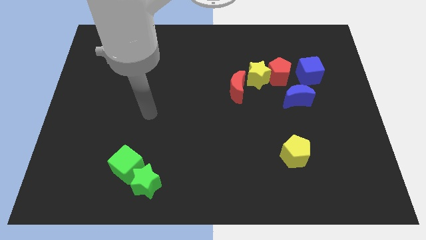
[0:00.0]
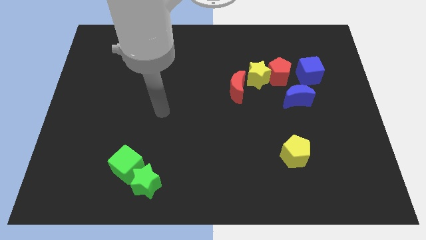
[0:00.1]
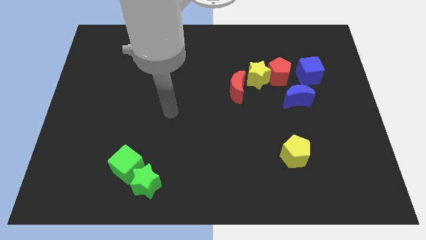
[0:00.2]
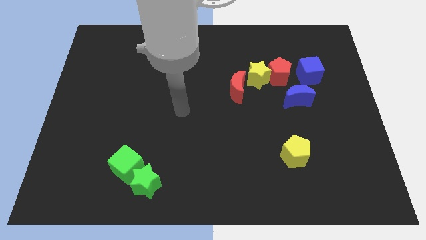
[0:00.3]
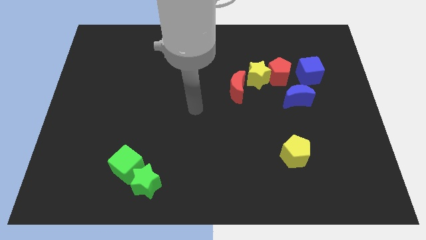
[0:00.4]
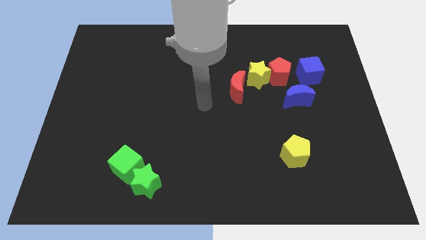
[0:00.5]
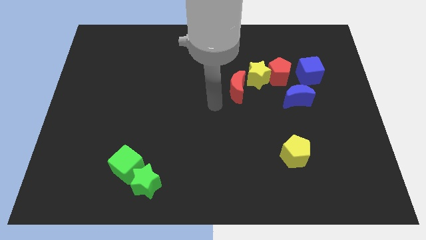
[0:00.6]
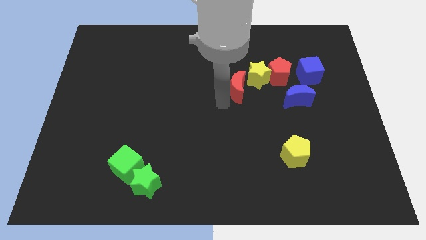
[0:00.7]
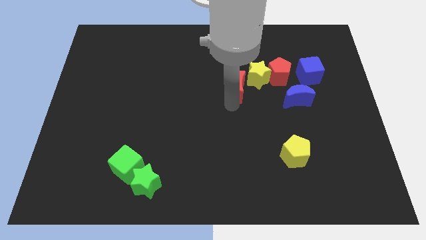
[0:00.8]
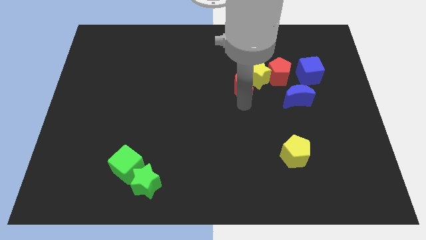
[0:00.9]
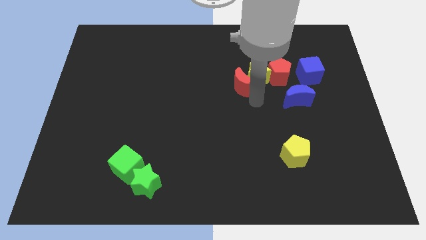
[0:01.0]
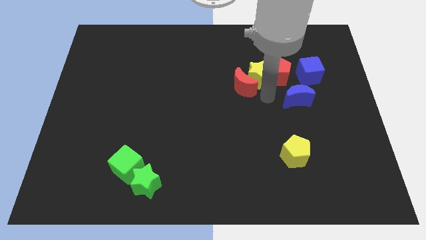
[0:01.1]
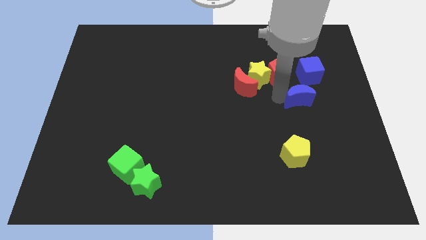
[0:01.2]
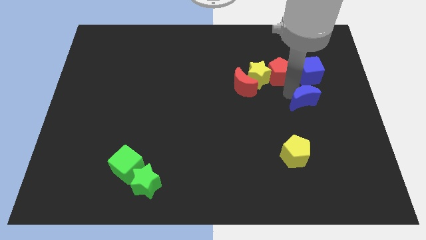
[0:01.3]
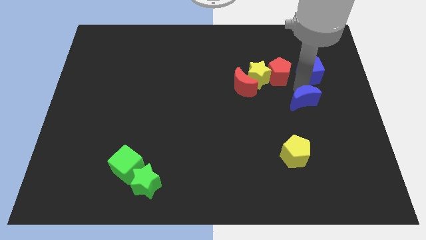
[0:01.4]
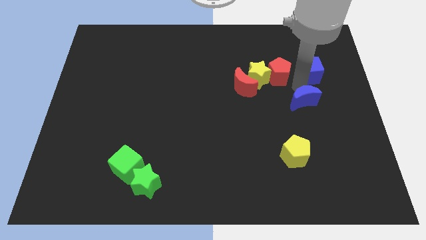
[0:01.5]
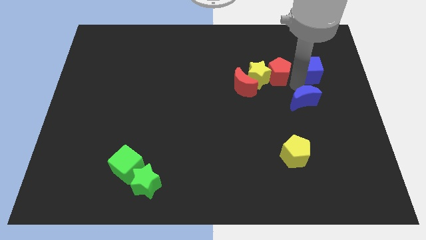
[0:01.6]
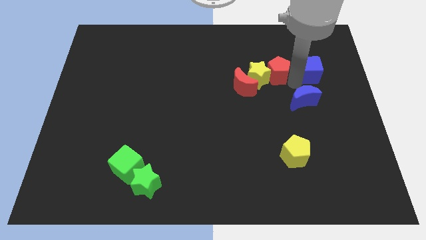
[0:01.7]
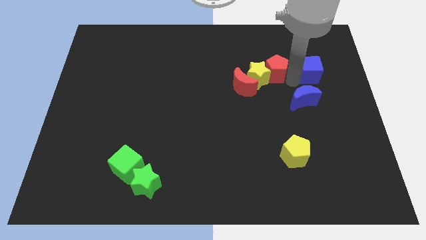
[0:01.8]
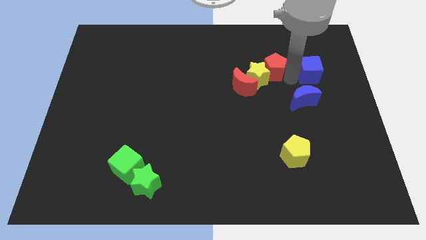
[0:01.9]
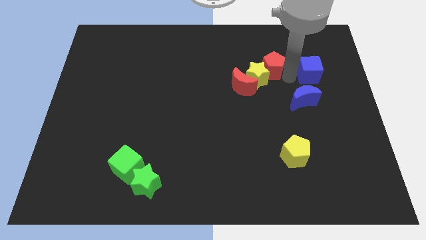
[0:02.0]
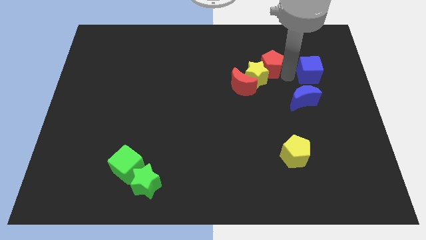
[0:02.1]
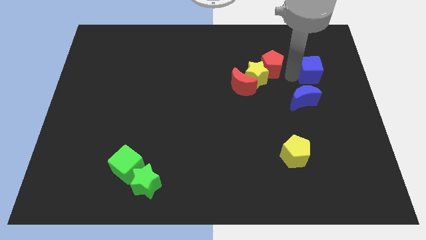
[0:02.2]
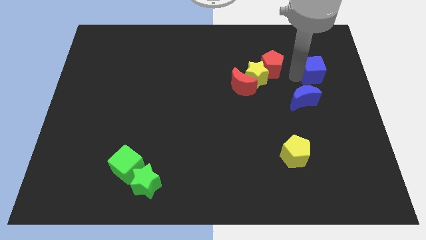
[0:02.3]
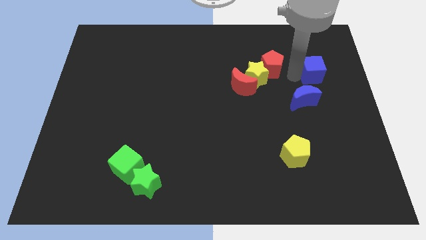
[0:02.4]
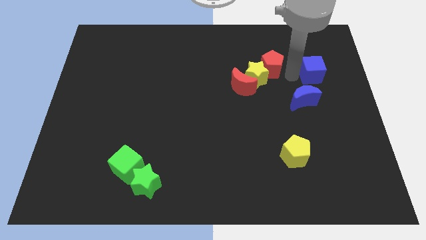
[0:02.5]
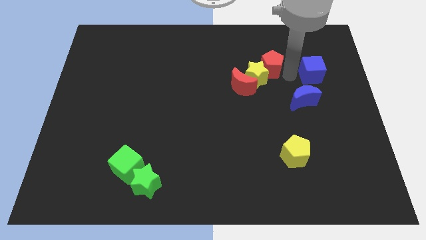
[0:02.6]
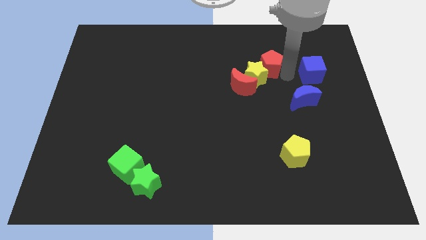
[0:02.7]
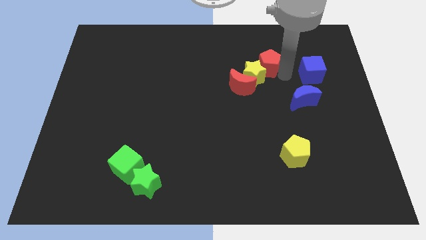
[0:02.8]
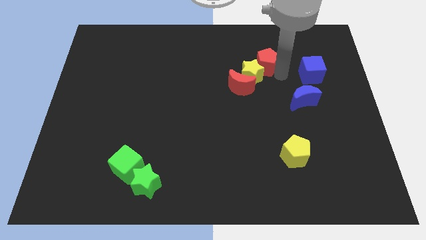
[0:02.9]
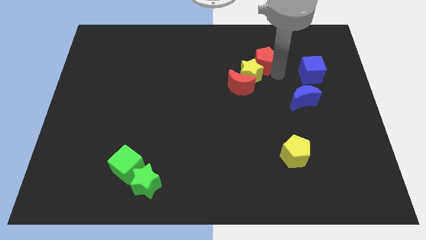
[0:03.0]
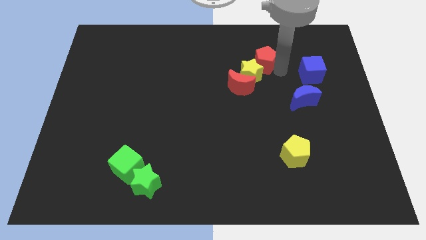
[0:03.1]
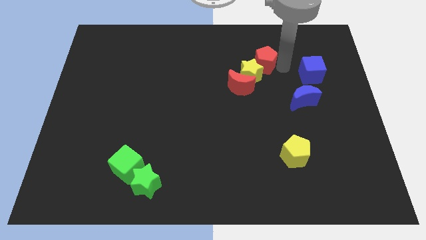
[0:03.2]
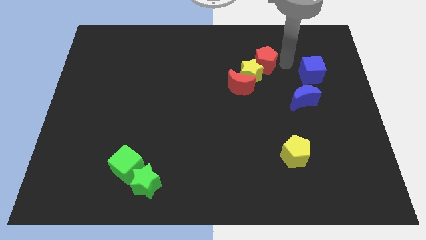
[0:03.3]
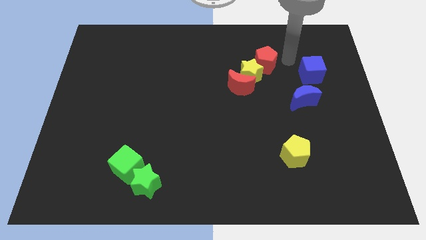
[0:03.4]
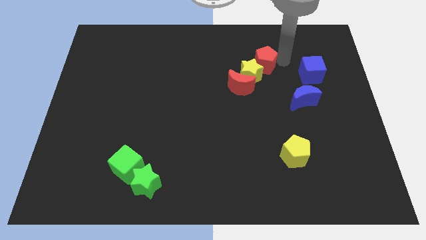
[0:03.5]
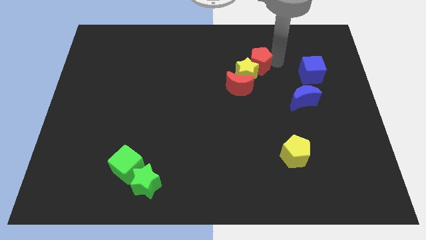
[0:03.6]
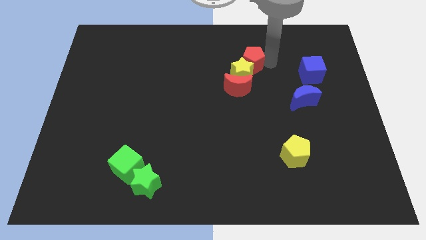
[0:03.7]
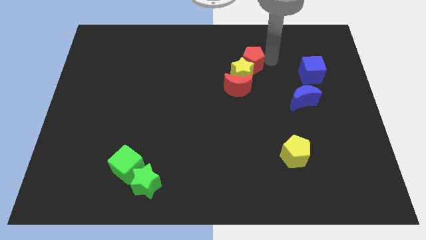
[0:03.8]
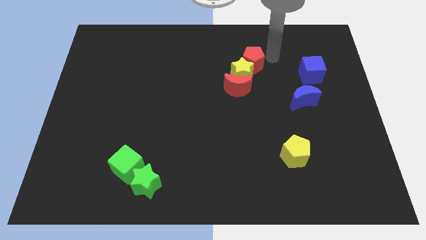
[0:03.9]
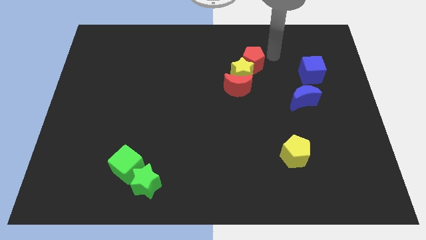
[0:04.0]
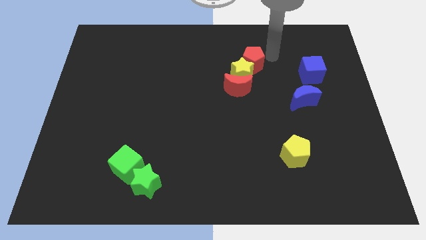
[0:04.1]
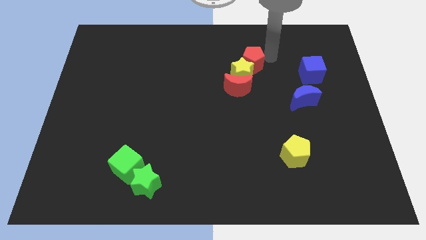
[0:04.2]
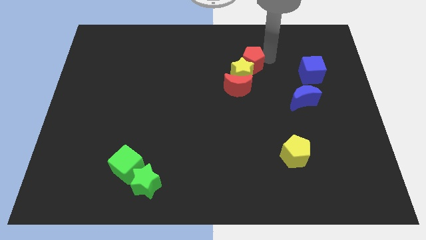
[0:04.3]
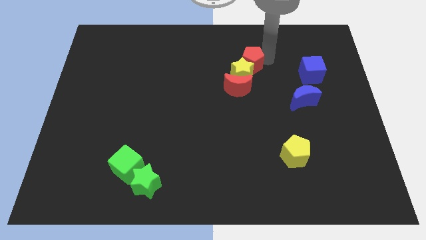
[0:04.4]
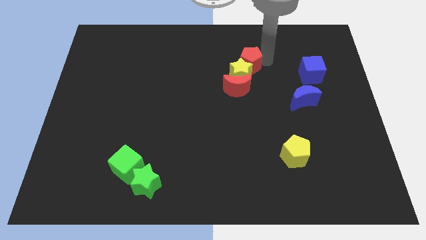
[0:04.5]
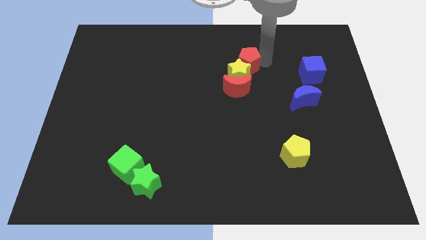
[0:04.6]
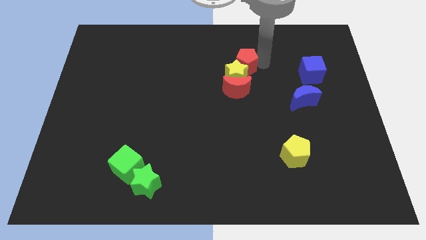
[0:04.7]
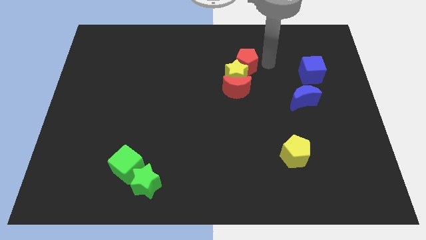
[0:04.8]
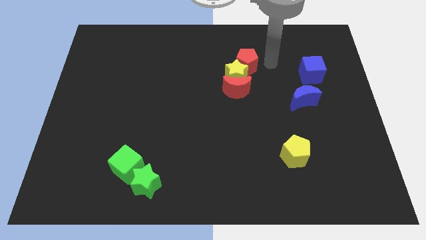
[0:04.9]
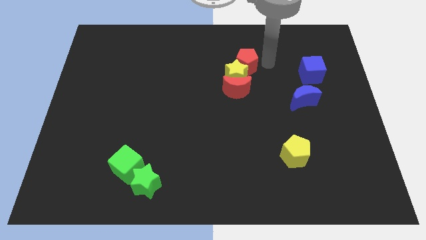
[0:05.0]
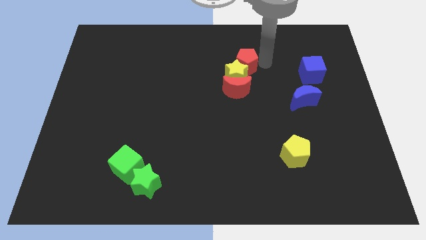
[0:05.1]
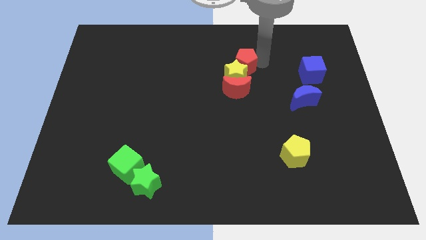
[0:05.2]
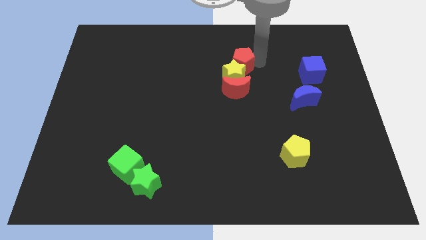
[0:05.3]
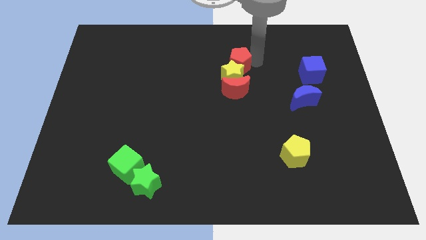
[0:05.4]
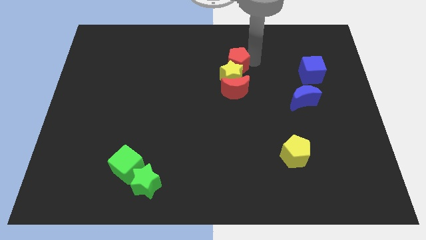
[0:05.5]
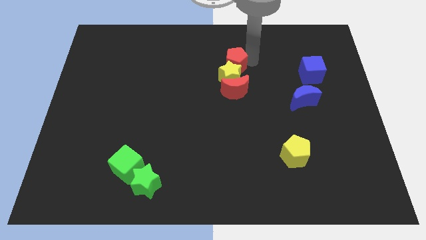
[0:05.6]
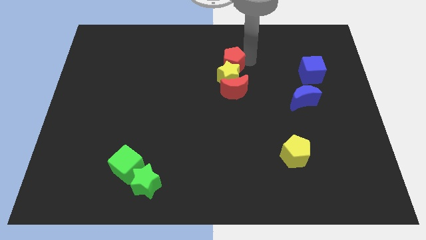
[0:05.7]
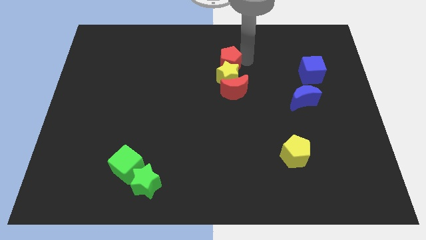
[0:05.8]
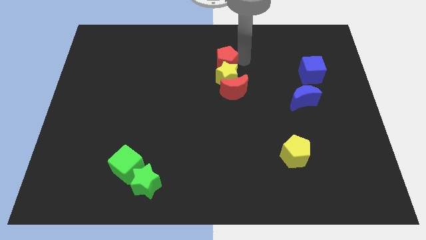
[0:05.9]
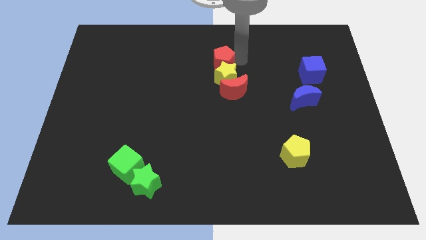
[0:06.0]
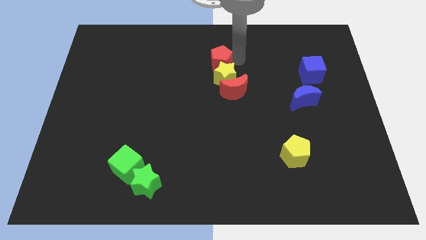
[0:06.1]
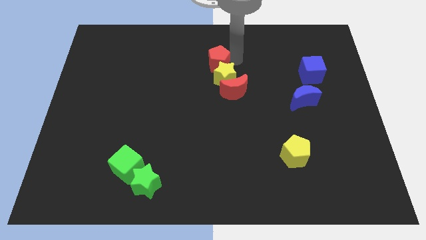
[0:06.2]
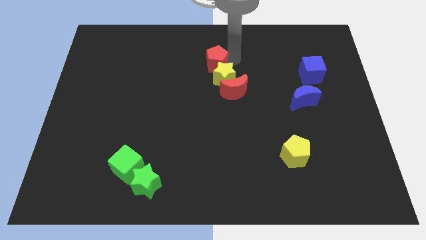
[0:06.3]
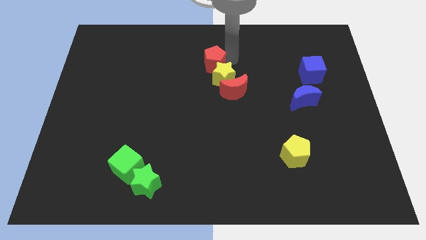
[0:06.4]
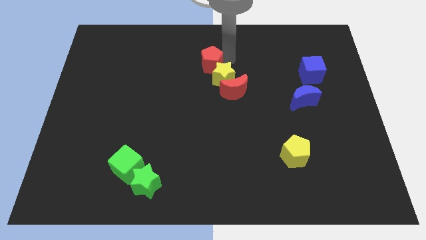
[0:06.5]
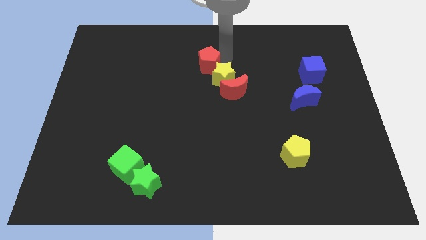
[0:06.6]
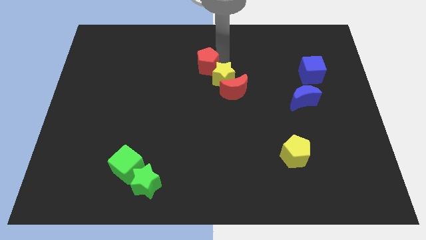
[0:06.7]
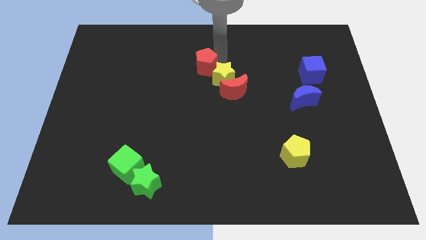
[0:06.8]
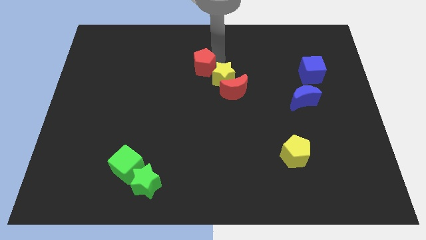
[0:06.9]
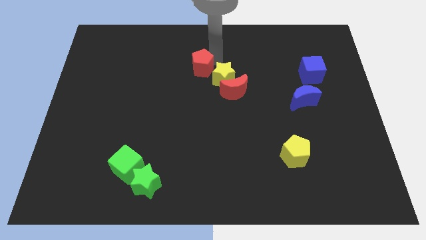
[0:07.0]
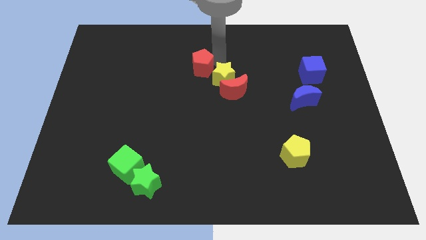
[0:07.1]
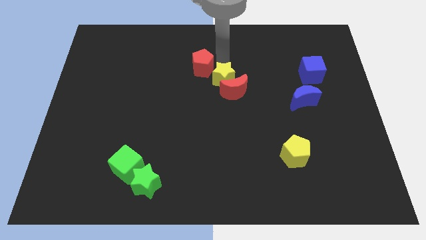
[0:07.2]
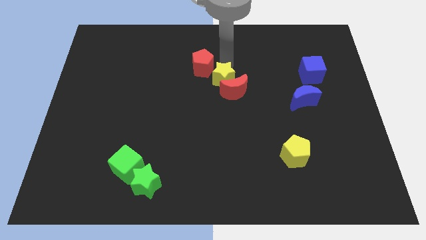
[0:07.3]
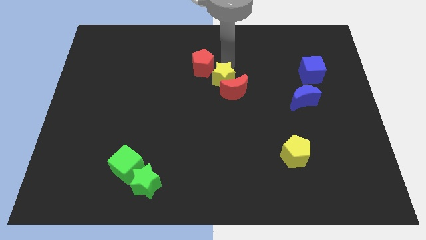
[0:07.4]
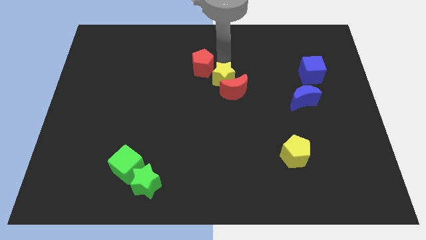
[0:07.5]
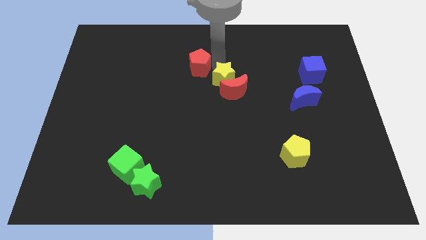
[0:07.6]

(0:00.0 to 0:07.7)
move the red pentagon to the left

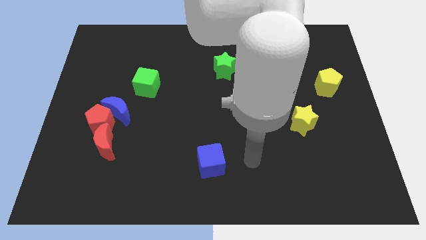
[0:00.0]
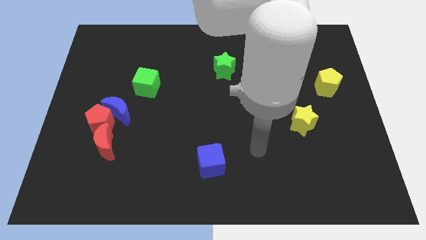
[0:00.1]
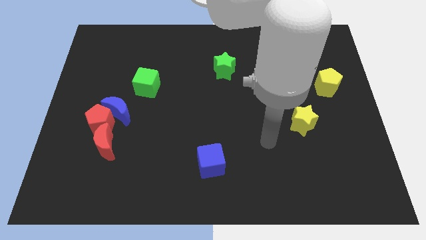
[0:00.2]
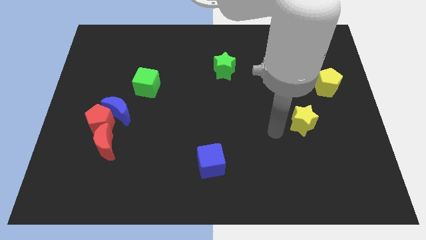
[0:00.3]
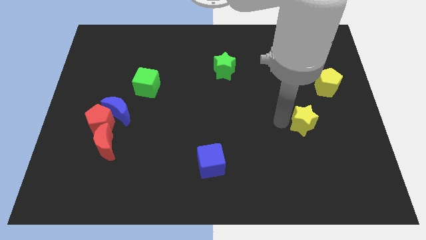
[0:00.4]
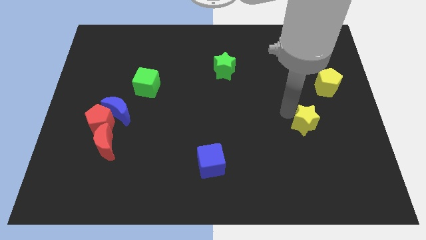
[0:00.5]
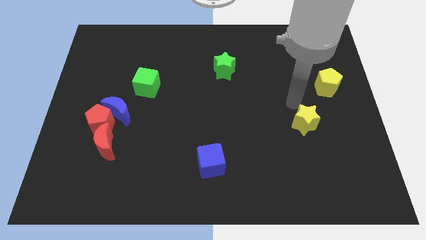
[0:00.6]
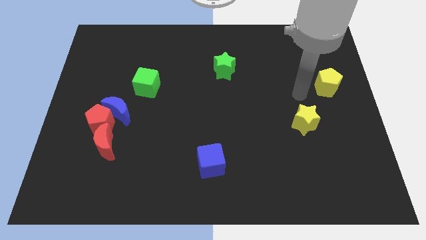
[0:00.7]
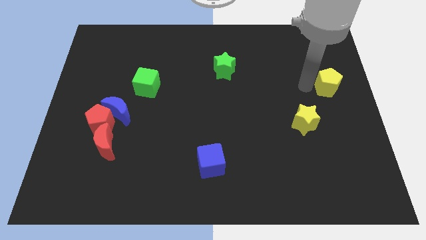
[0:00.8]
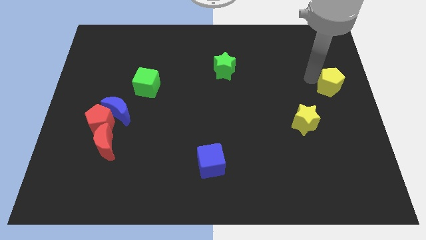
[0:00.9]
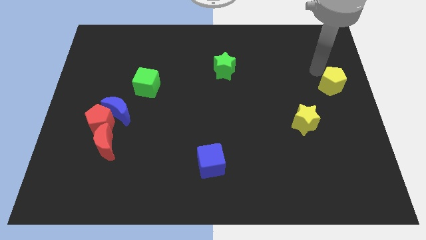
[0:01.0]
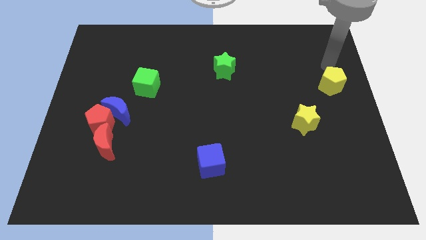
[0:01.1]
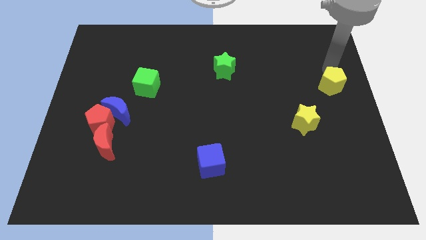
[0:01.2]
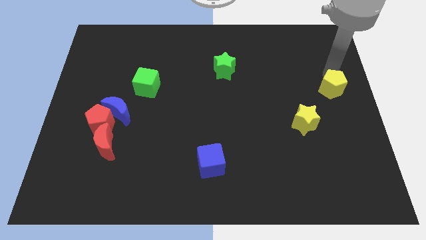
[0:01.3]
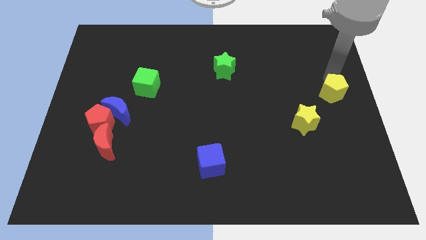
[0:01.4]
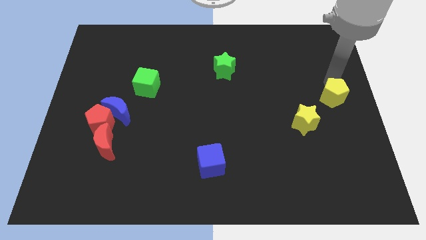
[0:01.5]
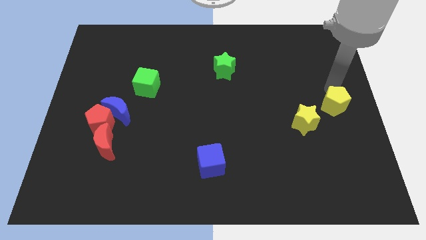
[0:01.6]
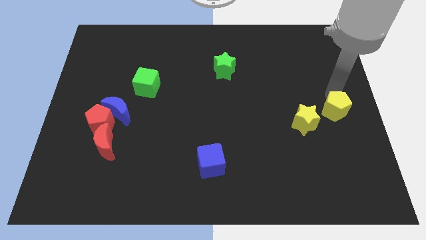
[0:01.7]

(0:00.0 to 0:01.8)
slightly slide the yellow pentagon down
